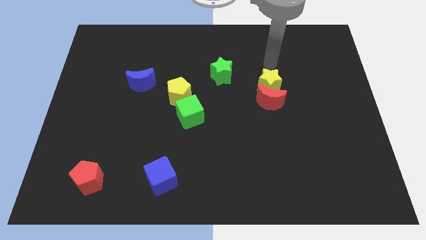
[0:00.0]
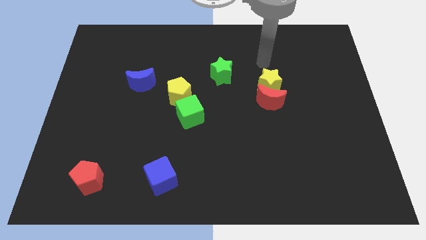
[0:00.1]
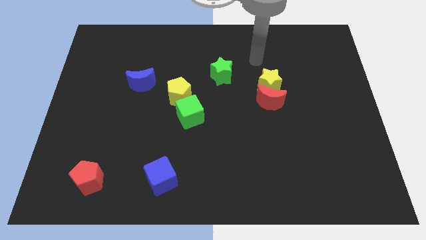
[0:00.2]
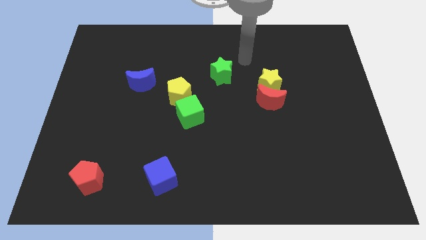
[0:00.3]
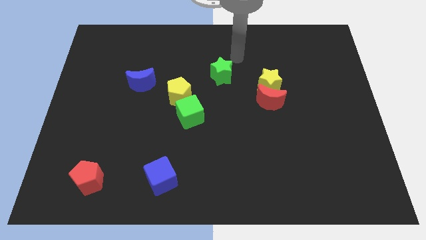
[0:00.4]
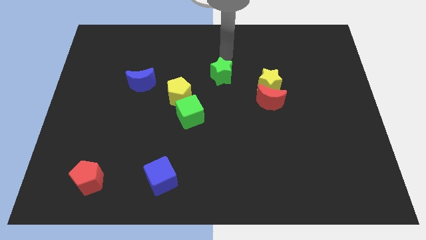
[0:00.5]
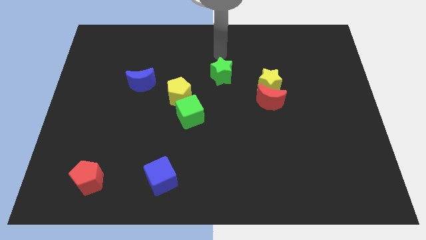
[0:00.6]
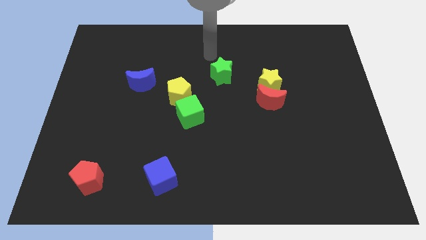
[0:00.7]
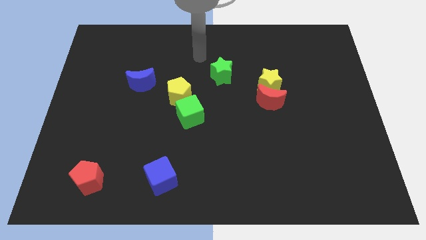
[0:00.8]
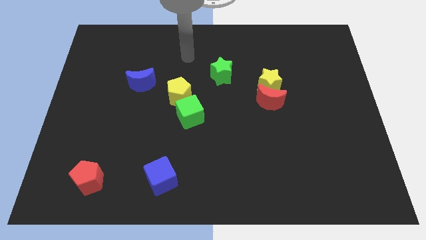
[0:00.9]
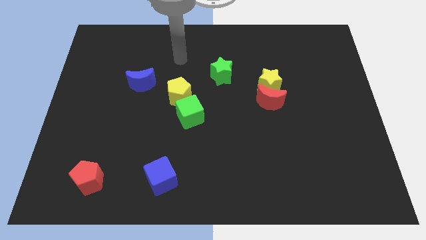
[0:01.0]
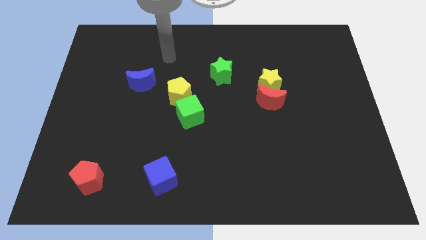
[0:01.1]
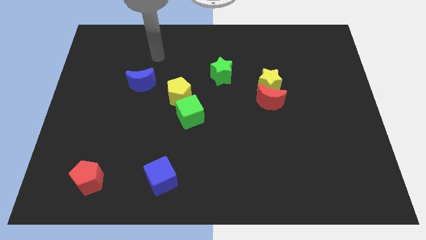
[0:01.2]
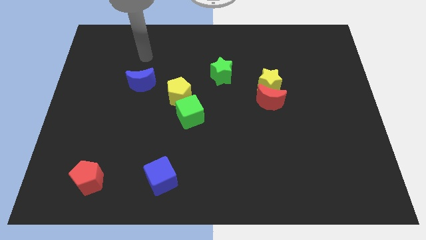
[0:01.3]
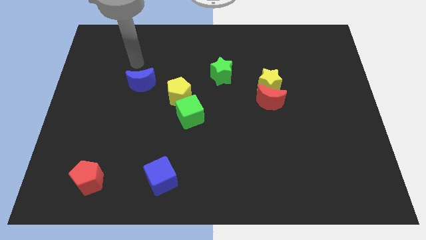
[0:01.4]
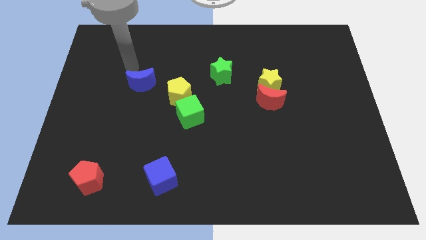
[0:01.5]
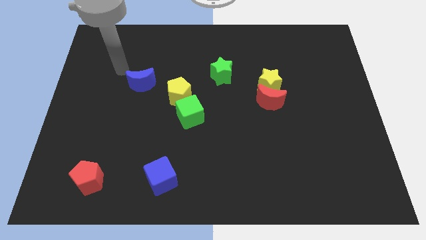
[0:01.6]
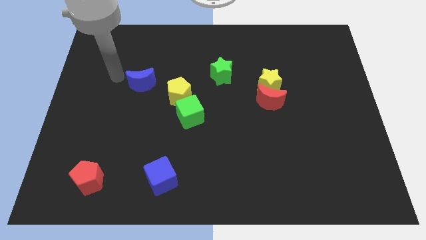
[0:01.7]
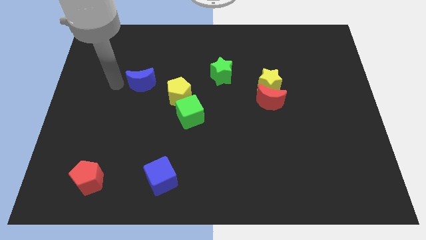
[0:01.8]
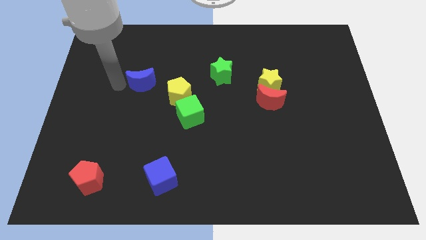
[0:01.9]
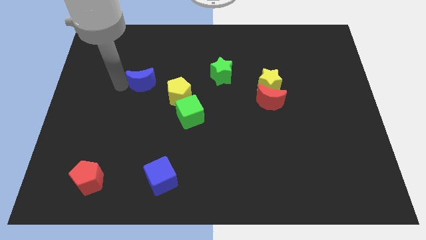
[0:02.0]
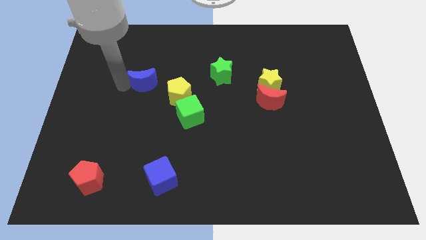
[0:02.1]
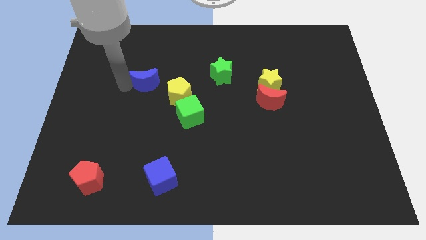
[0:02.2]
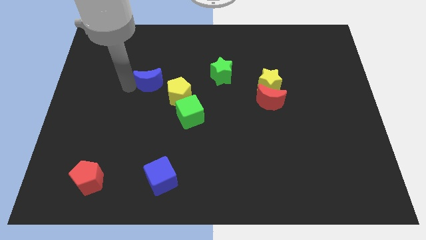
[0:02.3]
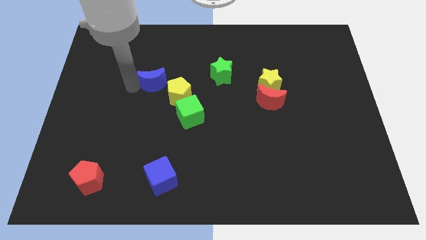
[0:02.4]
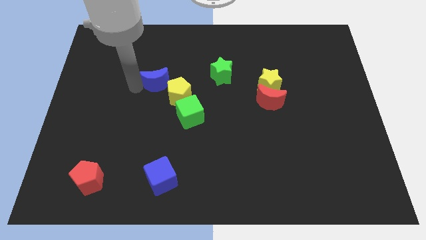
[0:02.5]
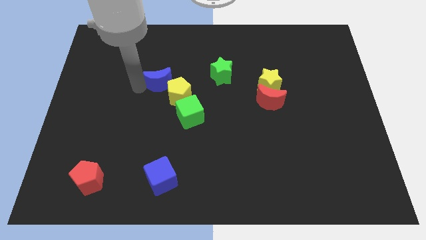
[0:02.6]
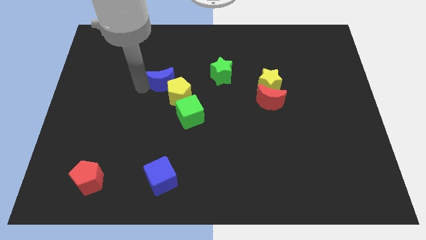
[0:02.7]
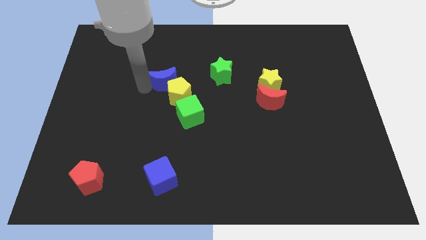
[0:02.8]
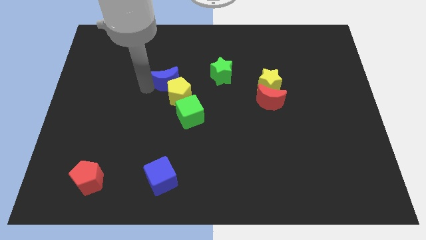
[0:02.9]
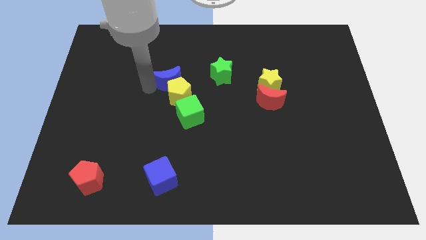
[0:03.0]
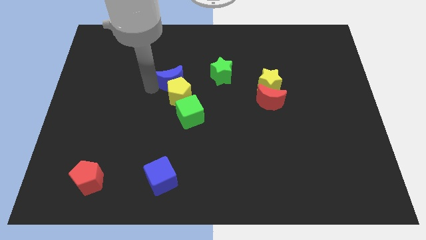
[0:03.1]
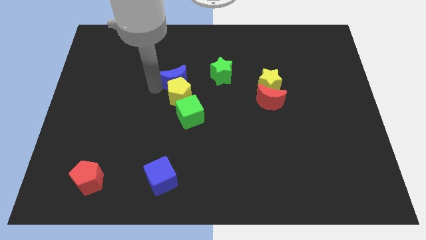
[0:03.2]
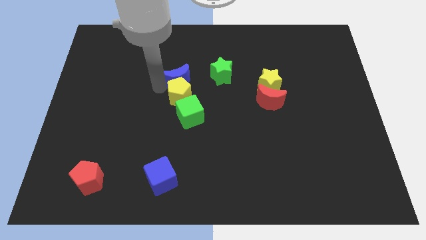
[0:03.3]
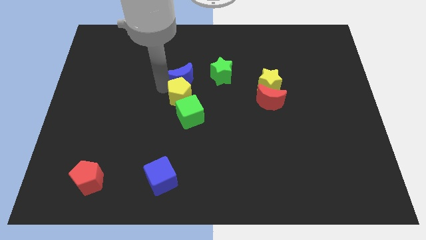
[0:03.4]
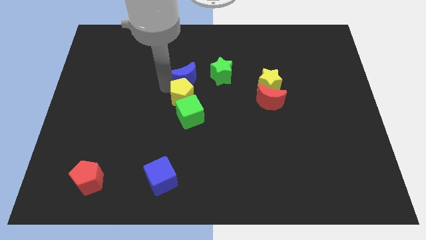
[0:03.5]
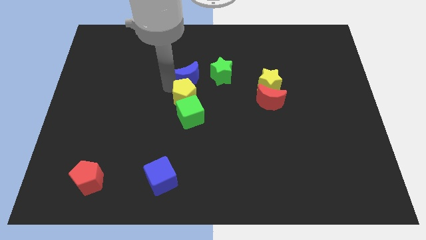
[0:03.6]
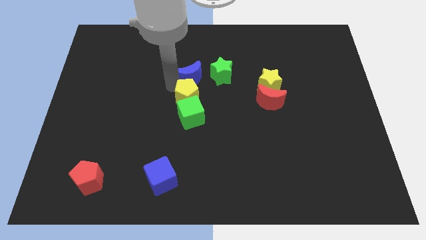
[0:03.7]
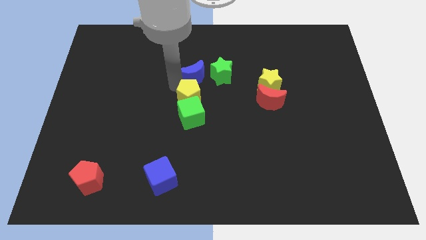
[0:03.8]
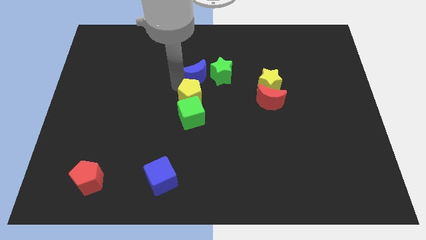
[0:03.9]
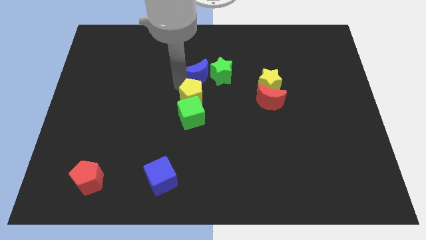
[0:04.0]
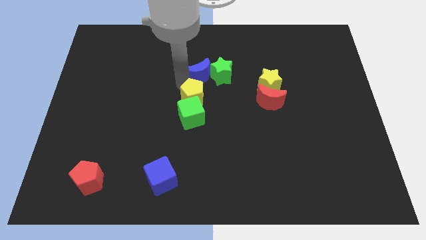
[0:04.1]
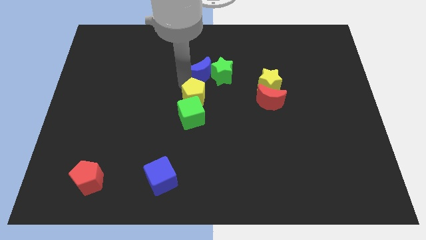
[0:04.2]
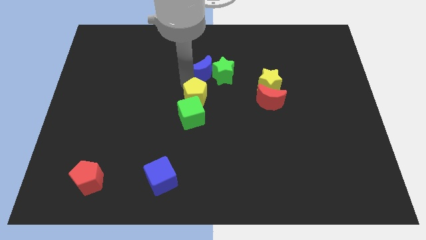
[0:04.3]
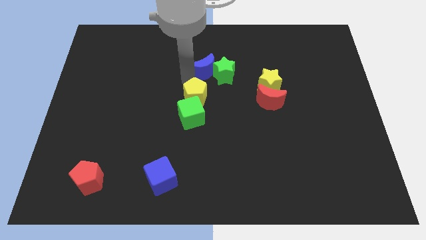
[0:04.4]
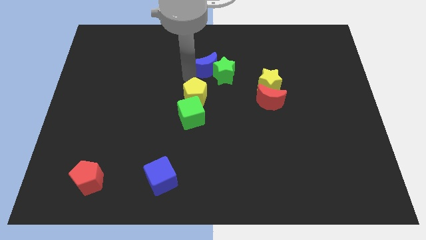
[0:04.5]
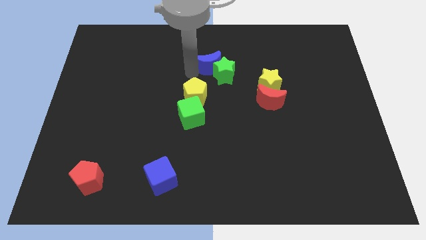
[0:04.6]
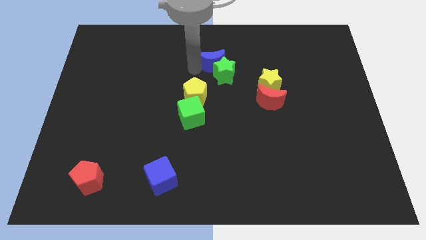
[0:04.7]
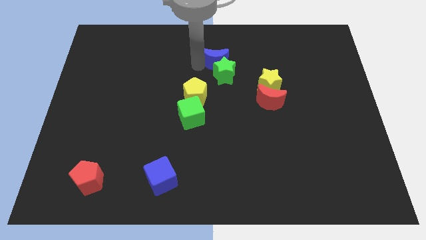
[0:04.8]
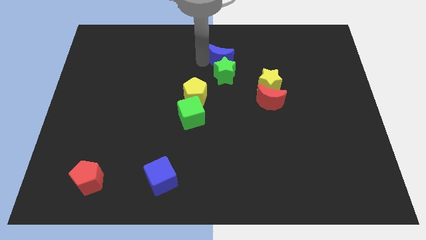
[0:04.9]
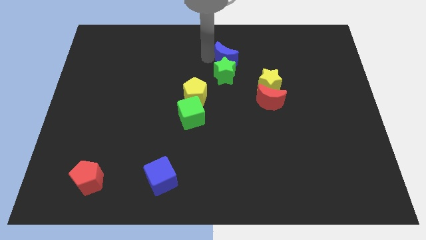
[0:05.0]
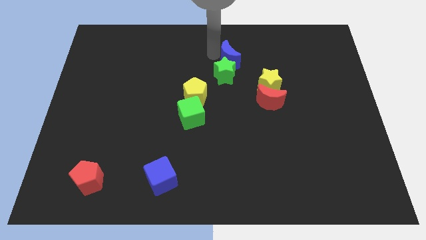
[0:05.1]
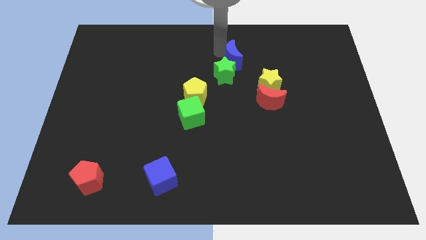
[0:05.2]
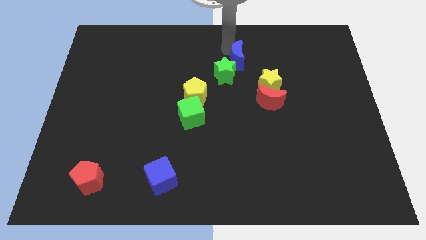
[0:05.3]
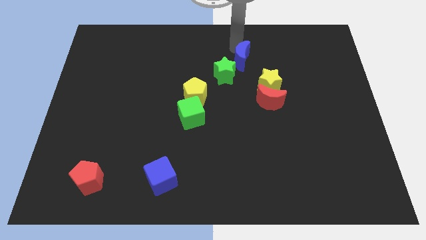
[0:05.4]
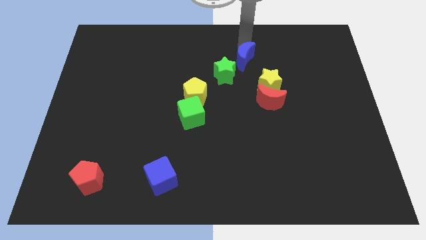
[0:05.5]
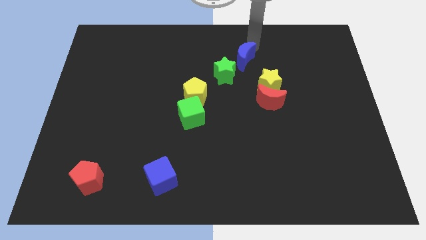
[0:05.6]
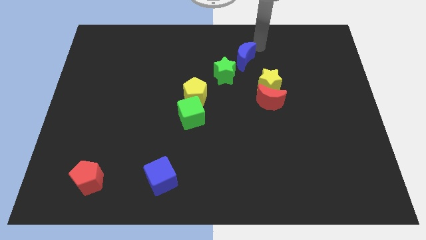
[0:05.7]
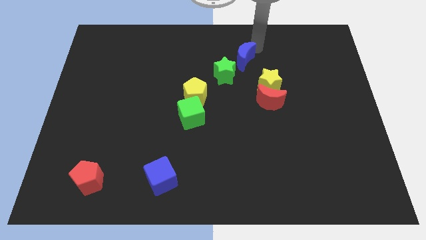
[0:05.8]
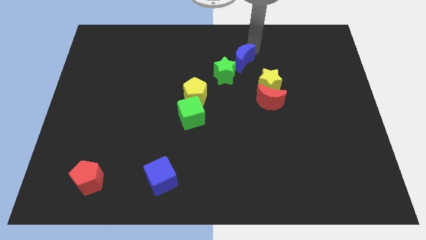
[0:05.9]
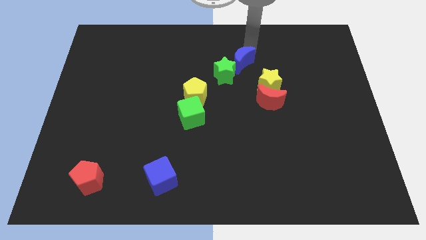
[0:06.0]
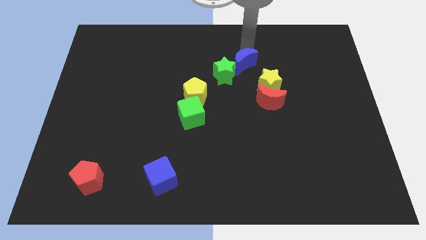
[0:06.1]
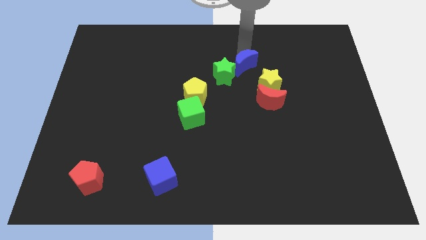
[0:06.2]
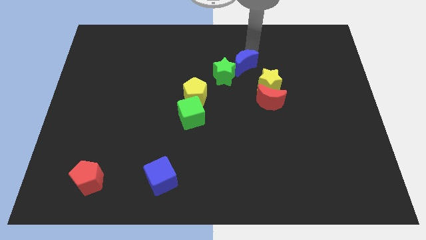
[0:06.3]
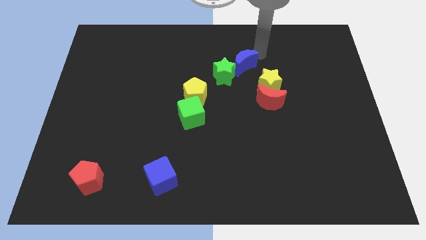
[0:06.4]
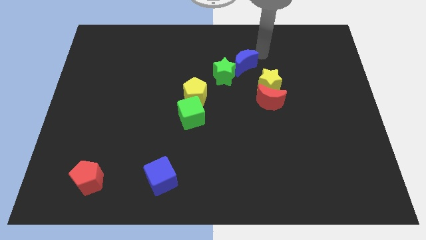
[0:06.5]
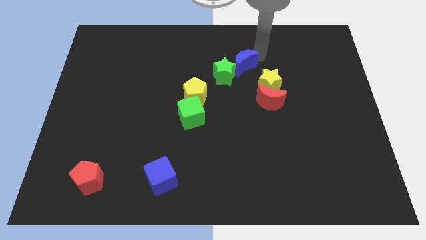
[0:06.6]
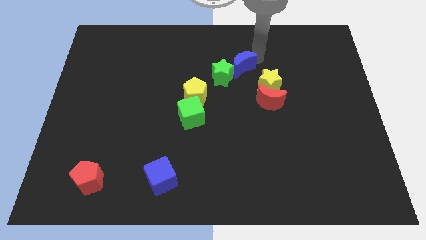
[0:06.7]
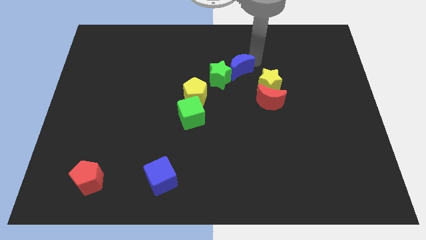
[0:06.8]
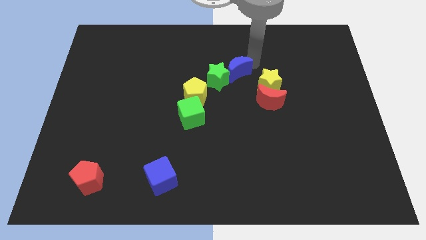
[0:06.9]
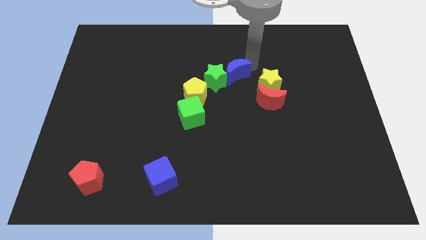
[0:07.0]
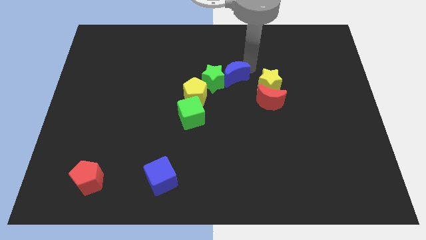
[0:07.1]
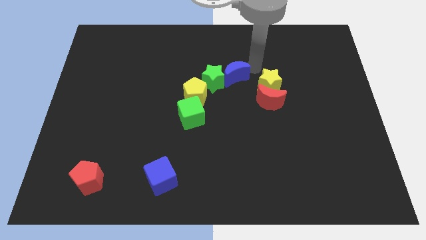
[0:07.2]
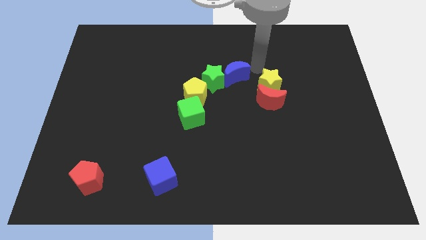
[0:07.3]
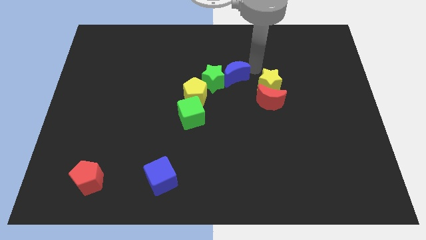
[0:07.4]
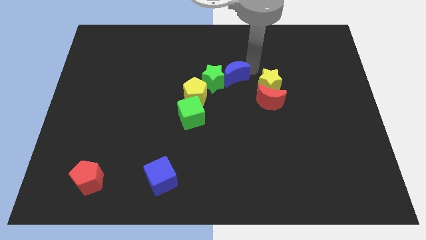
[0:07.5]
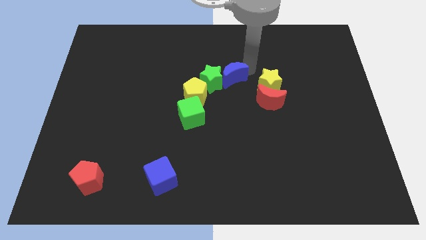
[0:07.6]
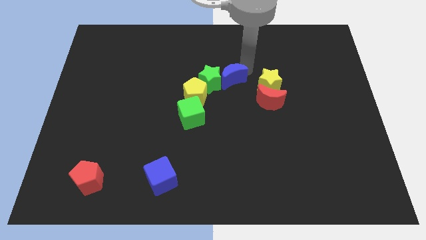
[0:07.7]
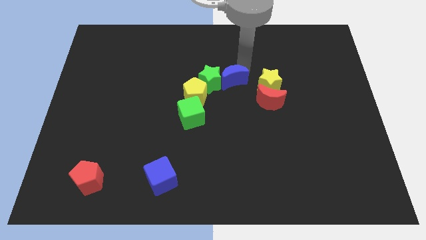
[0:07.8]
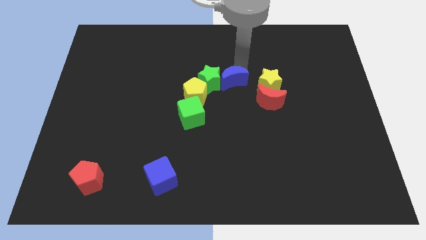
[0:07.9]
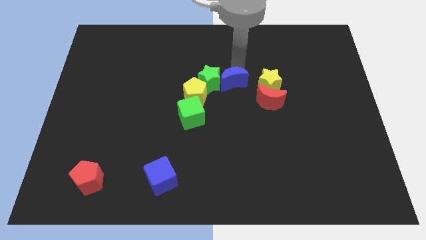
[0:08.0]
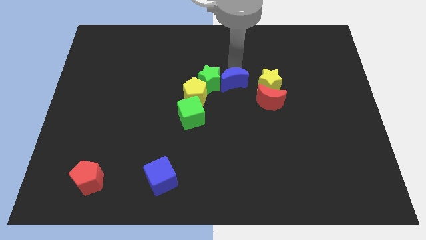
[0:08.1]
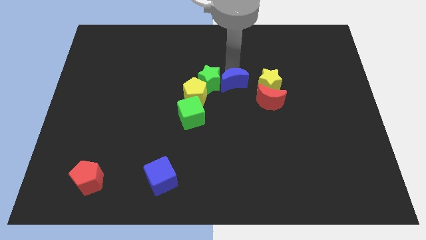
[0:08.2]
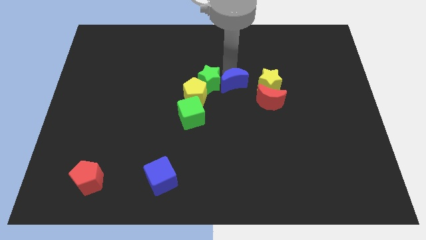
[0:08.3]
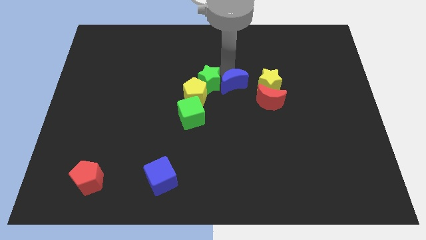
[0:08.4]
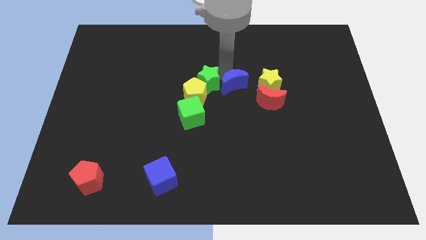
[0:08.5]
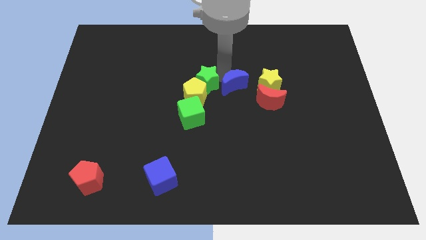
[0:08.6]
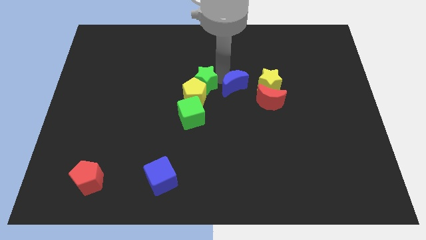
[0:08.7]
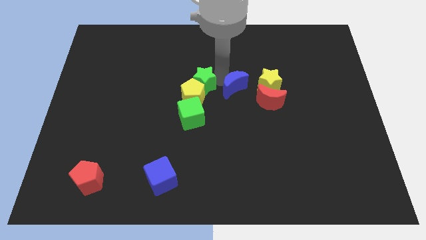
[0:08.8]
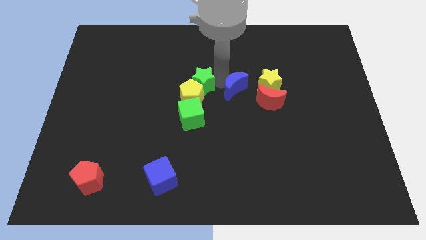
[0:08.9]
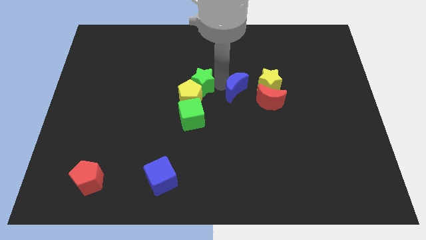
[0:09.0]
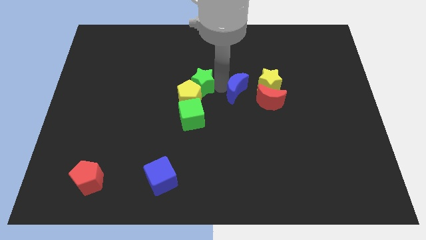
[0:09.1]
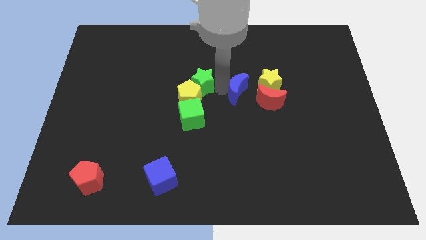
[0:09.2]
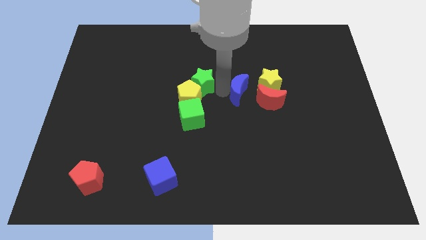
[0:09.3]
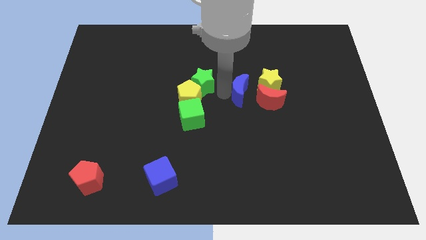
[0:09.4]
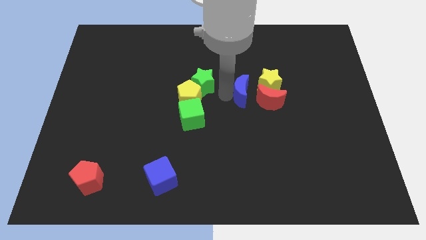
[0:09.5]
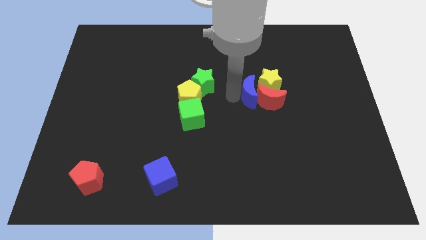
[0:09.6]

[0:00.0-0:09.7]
move the blue moon towards the yellow star
